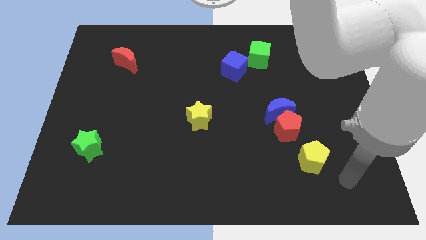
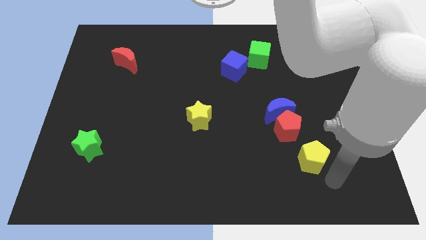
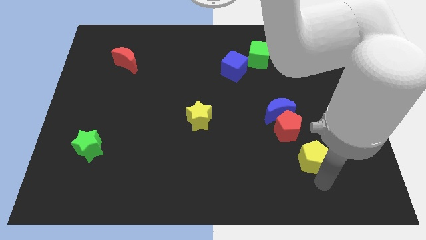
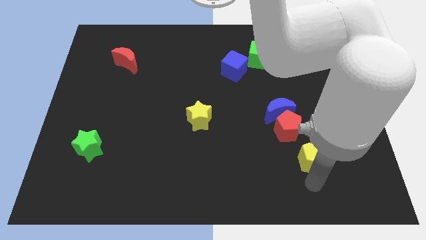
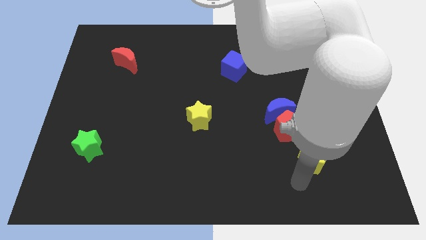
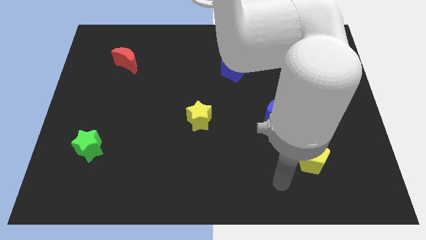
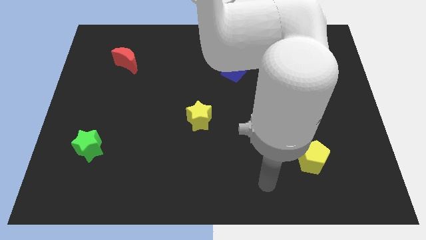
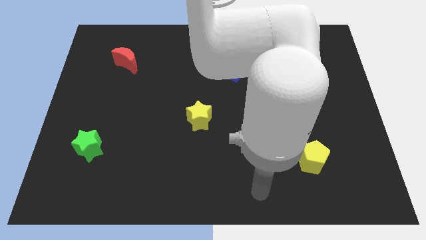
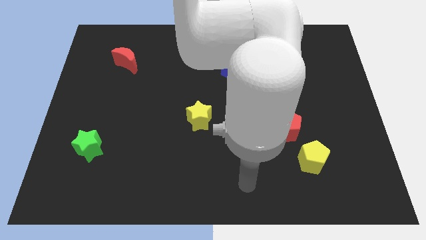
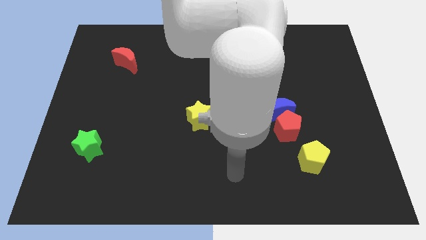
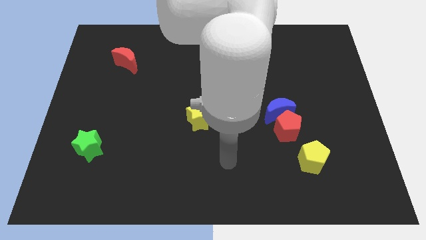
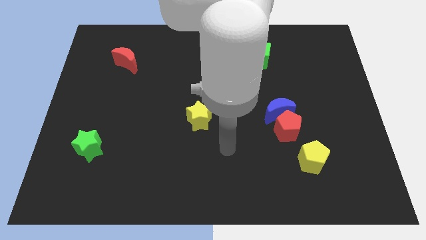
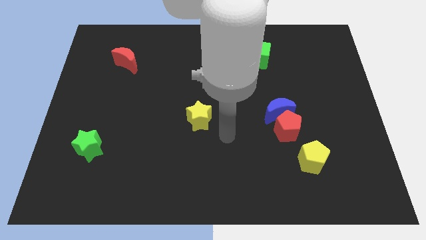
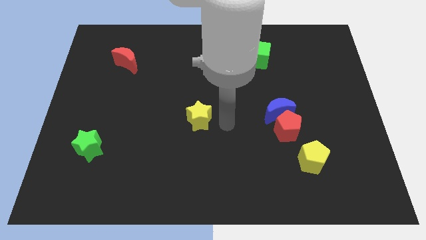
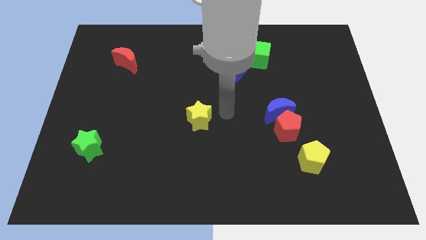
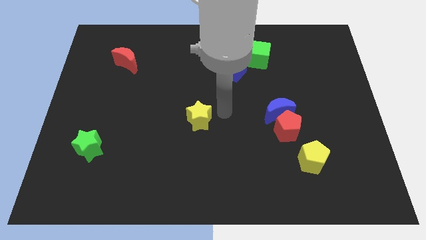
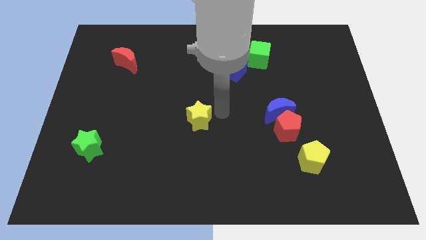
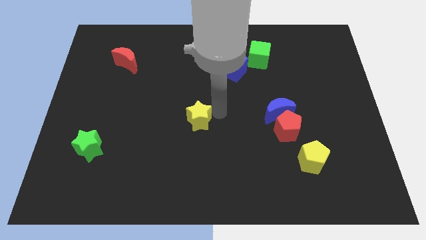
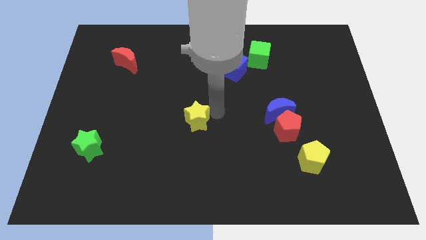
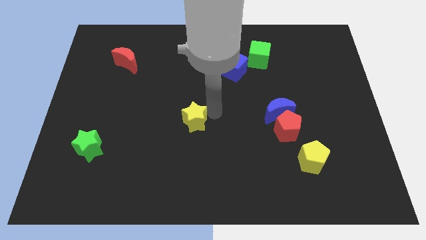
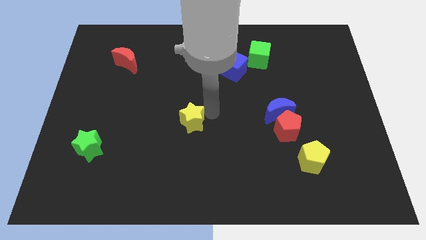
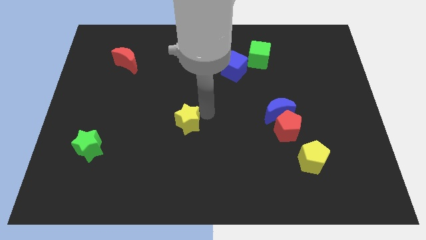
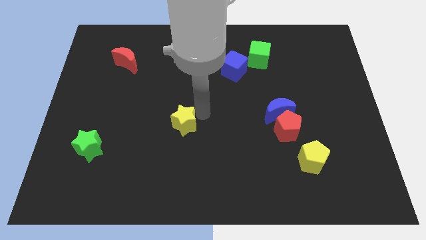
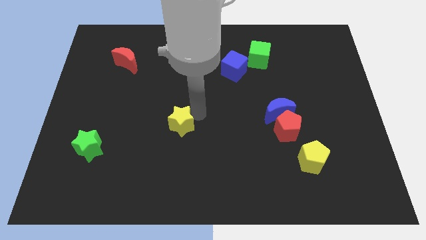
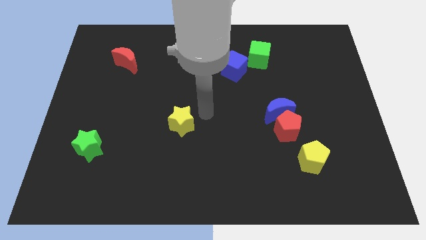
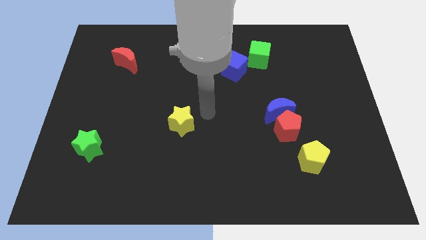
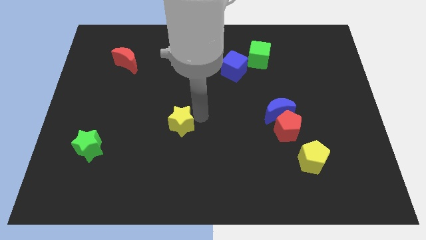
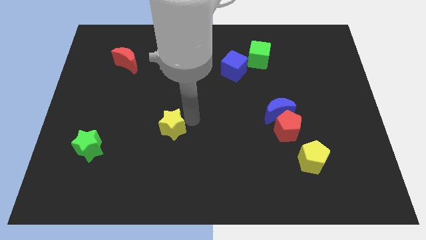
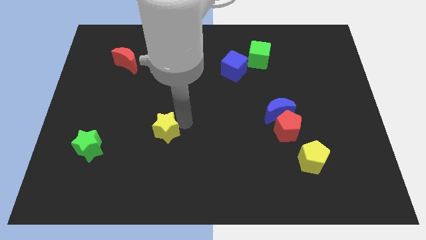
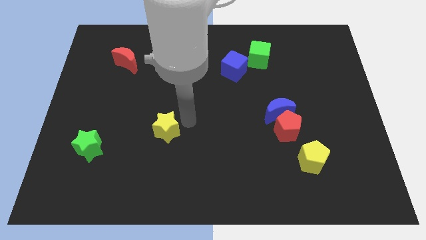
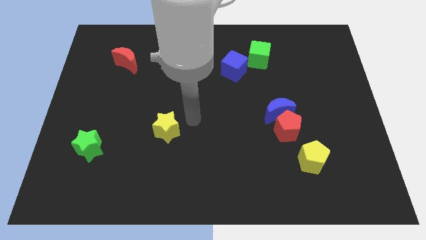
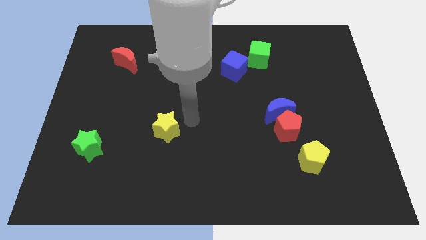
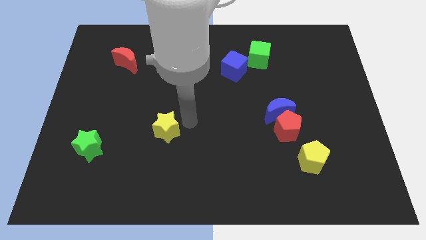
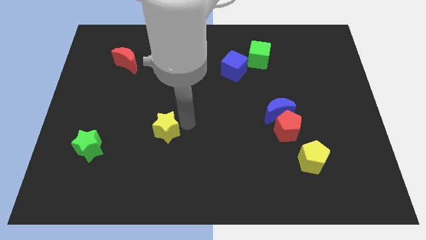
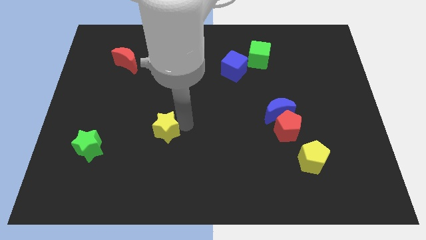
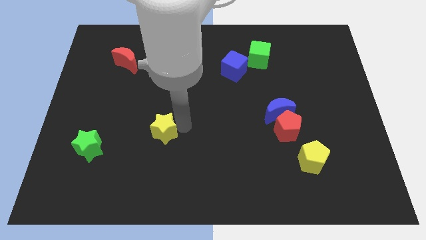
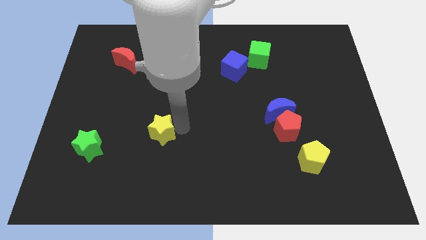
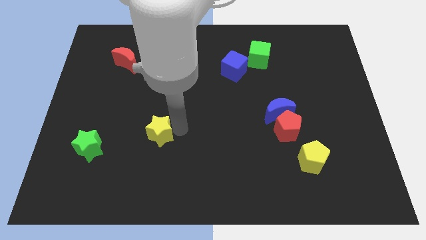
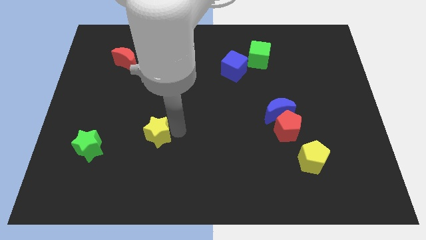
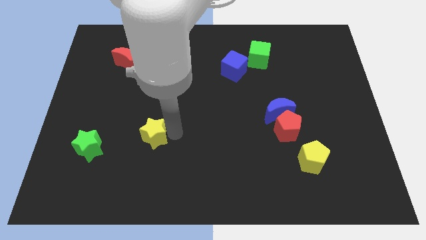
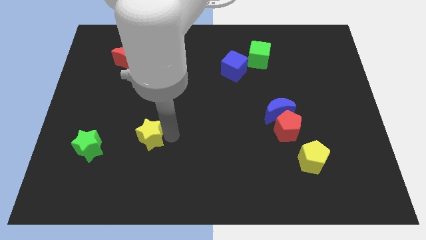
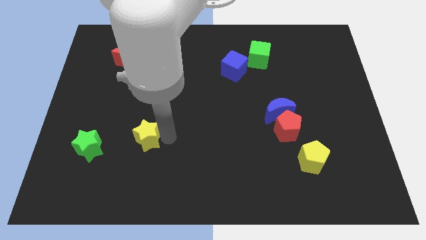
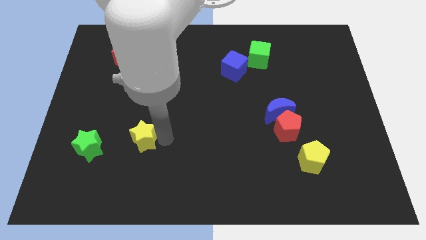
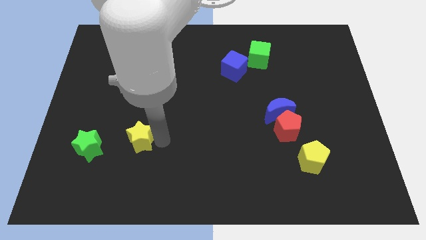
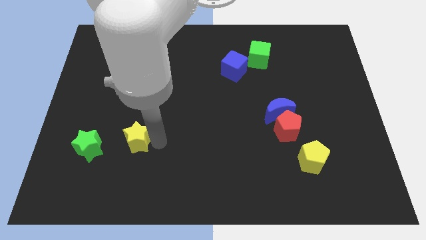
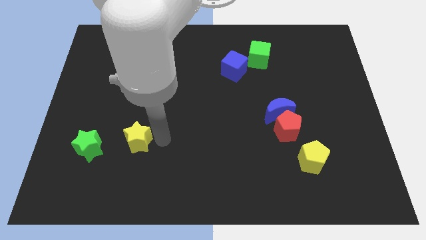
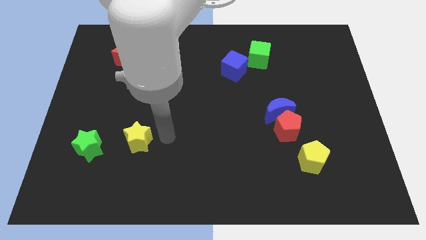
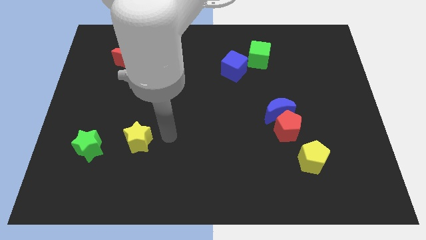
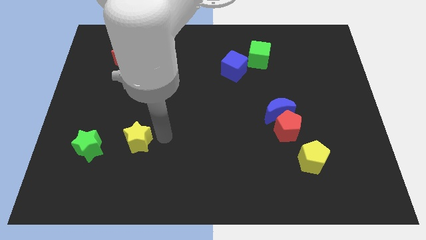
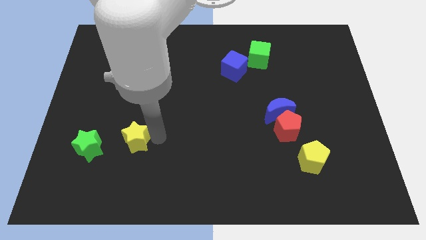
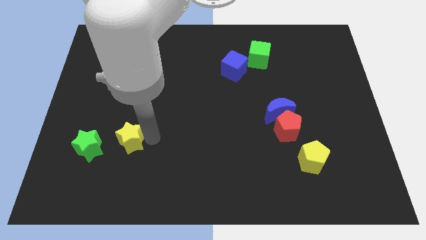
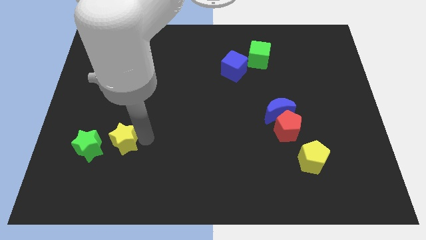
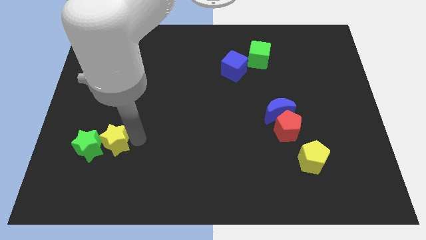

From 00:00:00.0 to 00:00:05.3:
slide the yellow star close to the green star

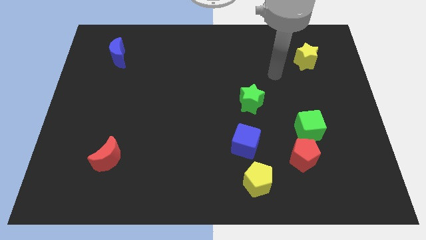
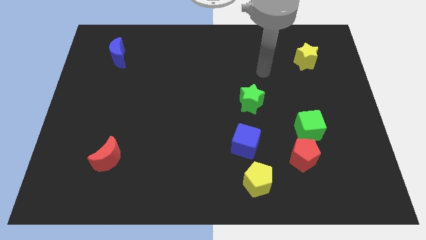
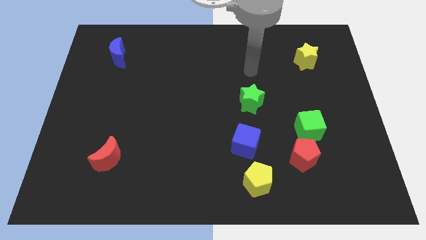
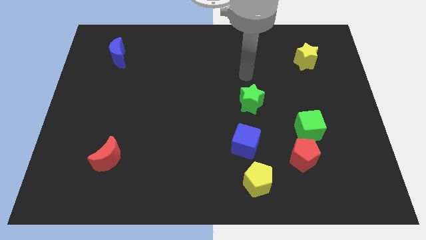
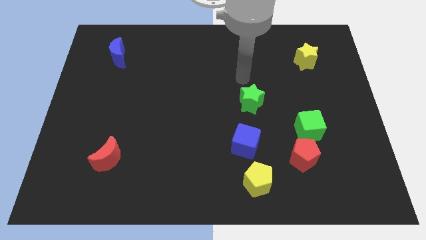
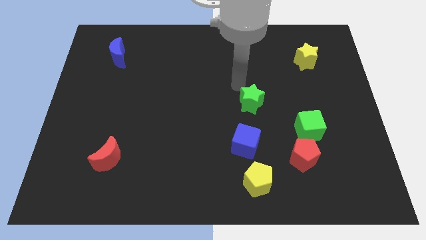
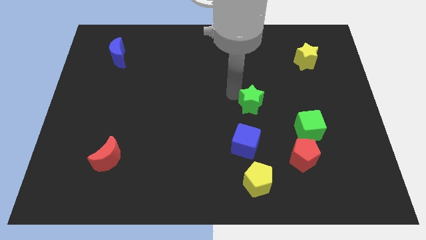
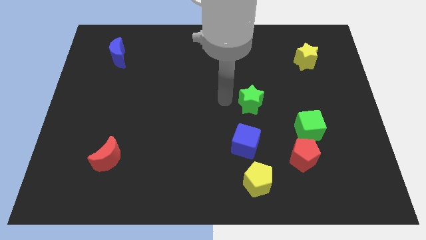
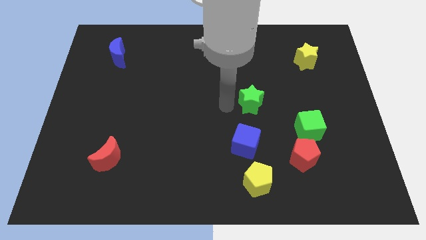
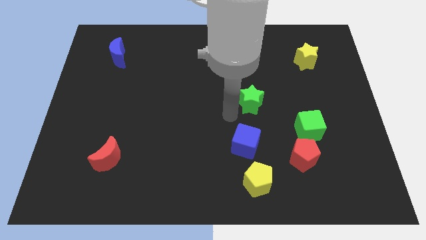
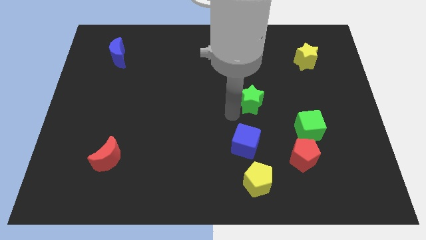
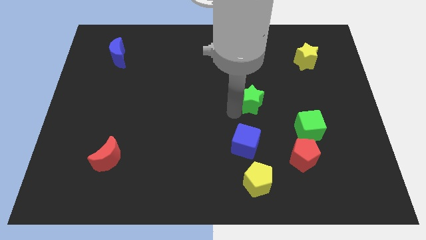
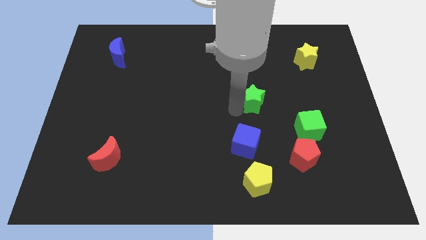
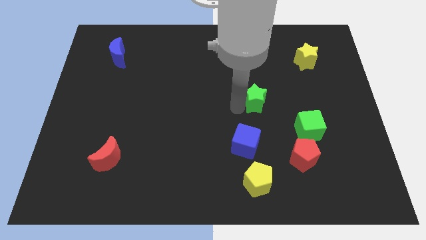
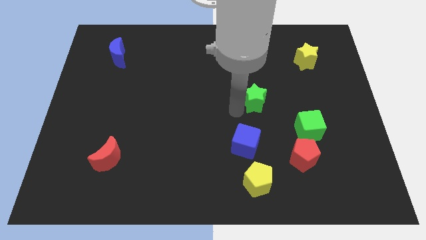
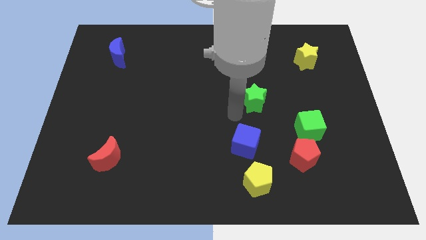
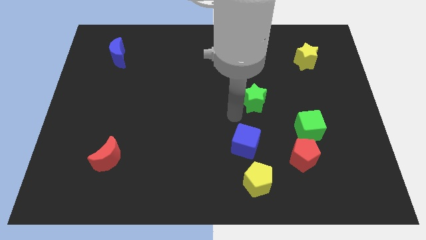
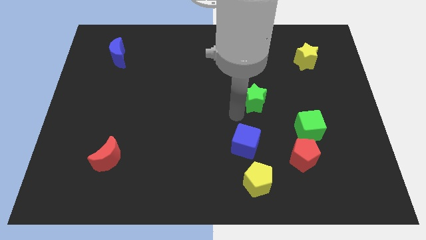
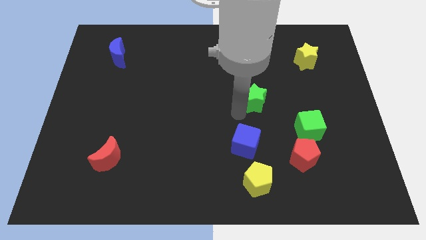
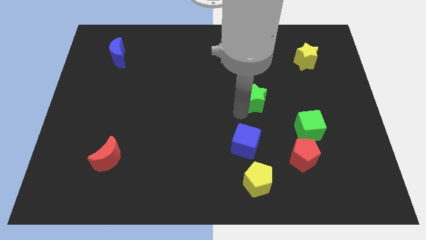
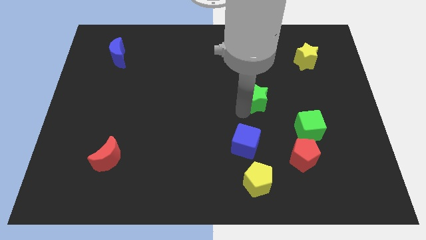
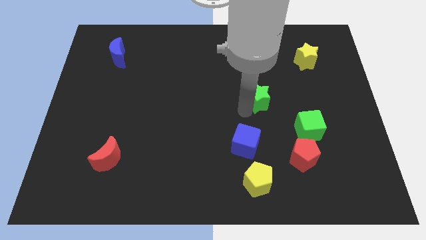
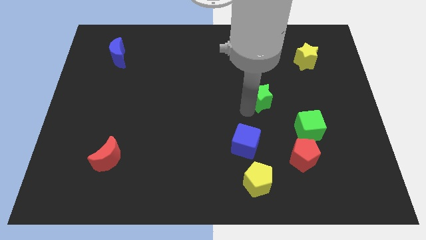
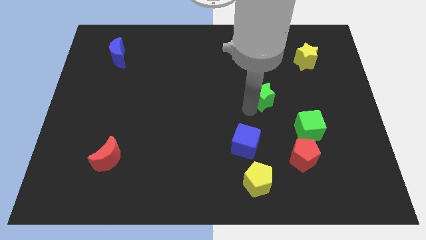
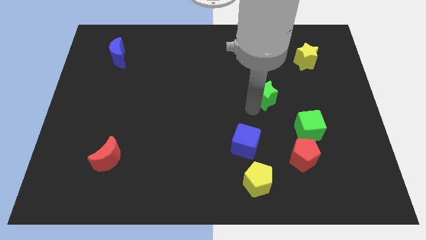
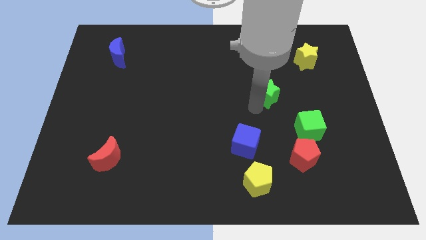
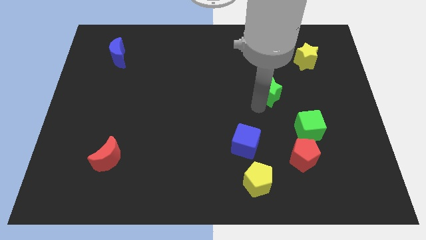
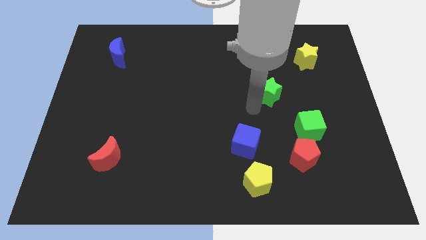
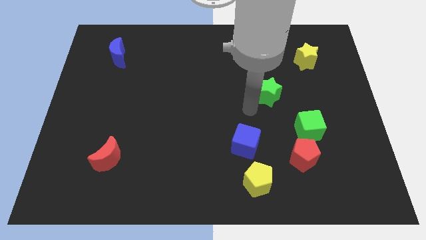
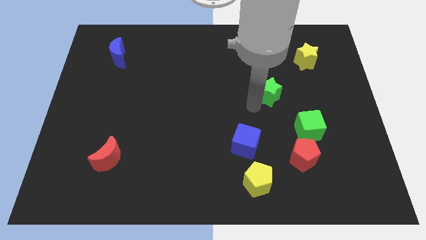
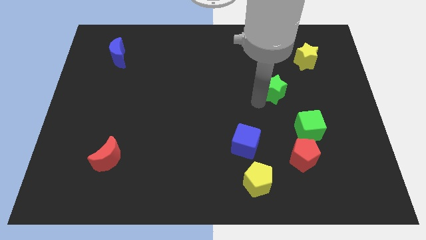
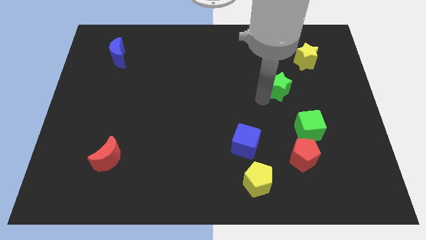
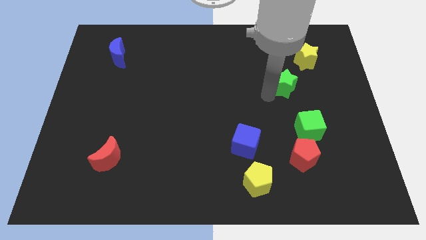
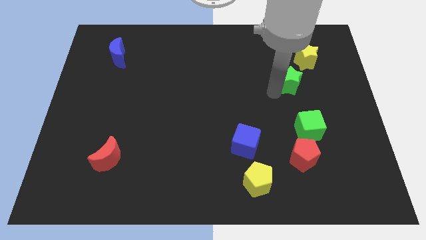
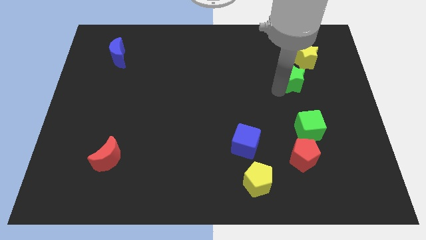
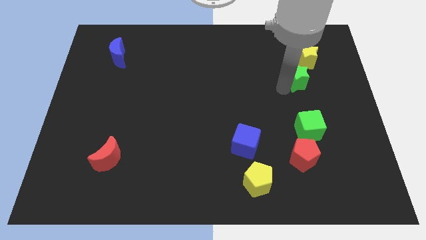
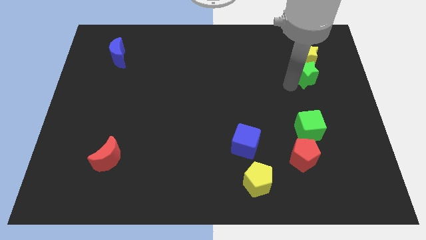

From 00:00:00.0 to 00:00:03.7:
put the green star to the yellow star
